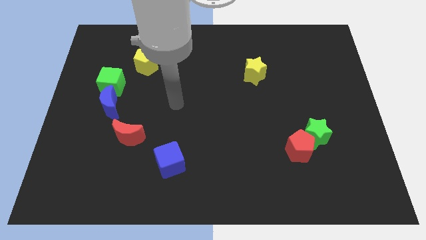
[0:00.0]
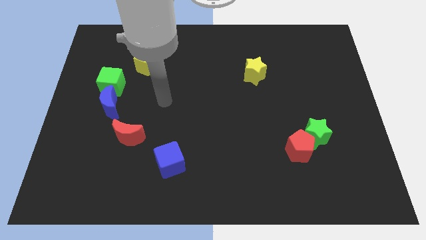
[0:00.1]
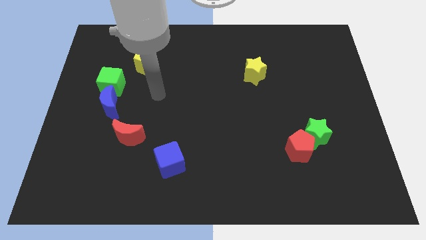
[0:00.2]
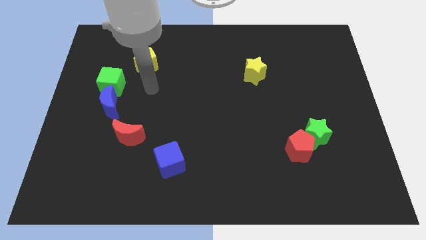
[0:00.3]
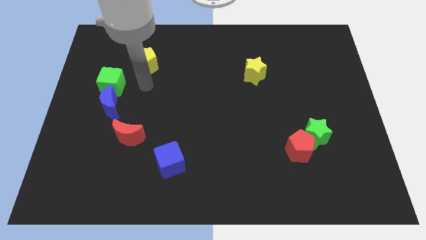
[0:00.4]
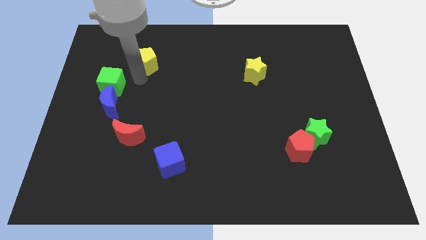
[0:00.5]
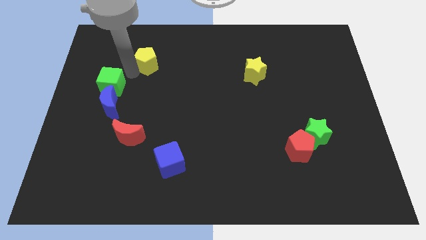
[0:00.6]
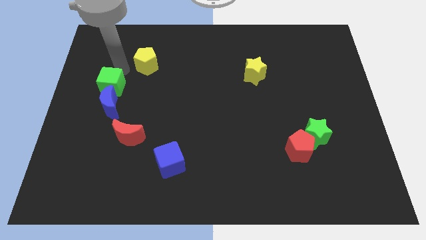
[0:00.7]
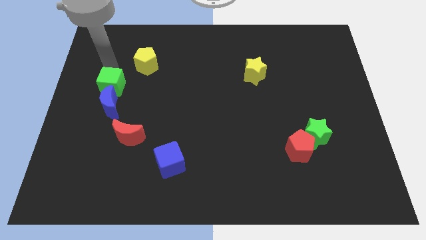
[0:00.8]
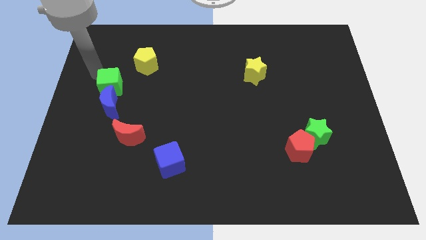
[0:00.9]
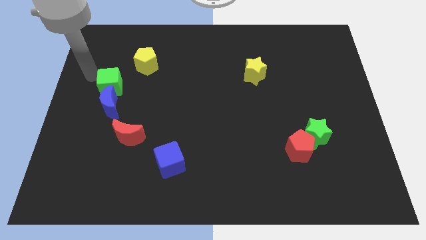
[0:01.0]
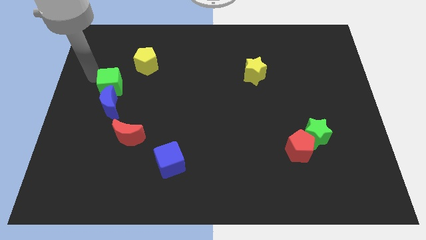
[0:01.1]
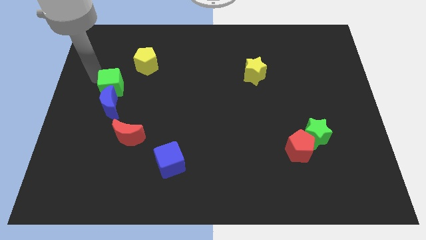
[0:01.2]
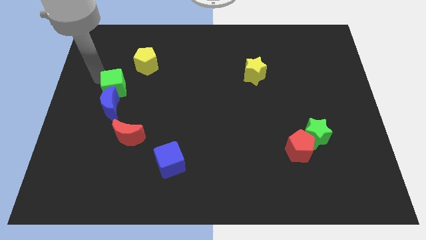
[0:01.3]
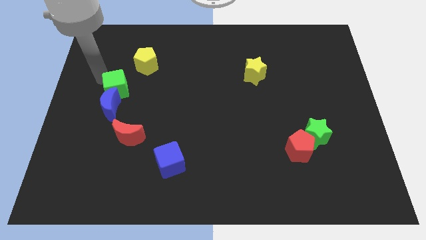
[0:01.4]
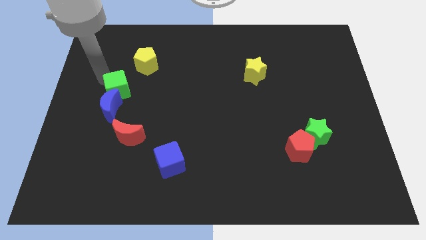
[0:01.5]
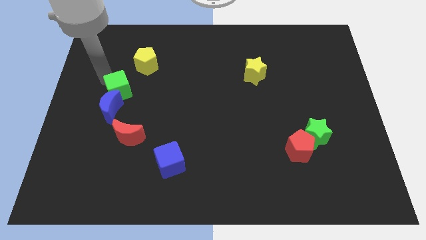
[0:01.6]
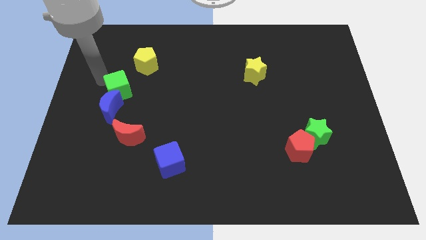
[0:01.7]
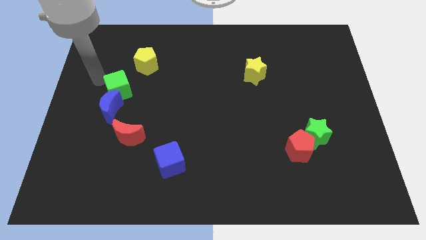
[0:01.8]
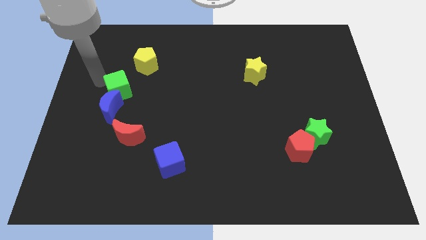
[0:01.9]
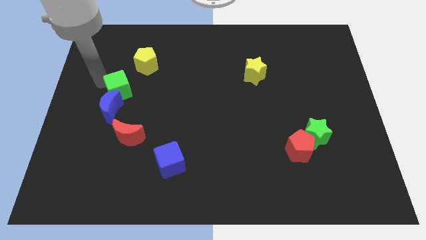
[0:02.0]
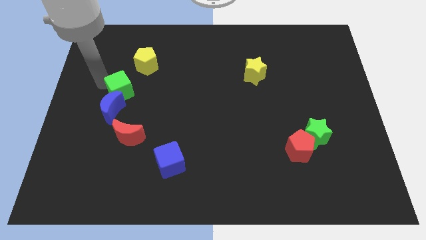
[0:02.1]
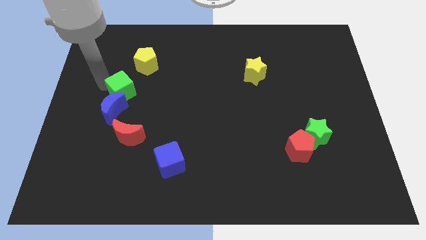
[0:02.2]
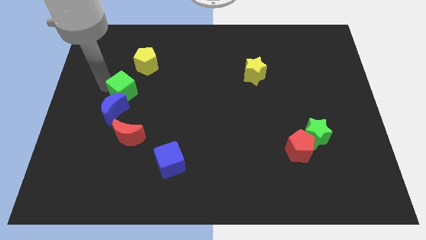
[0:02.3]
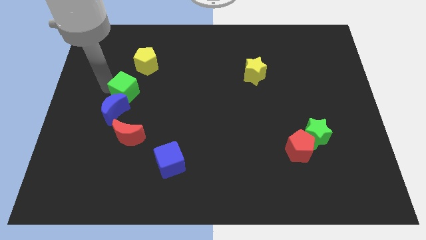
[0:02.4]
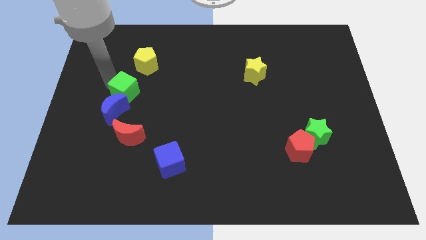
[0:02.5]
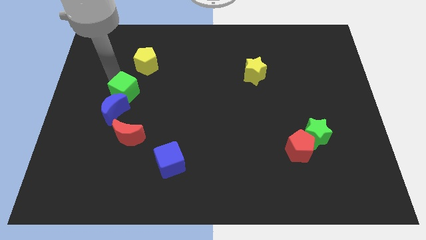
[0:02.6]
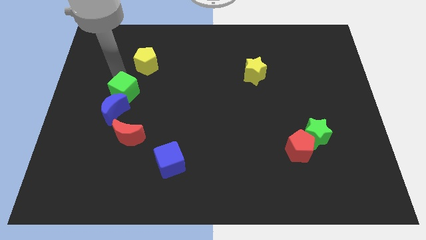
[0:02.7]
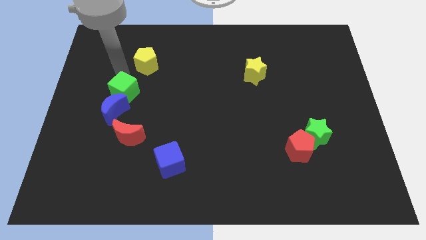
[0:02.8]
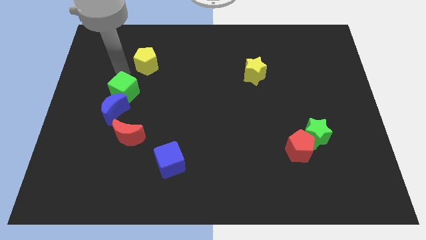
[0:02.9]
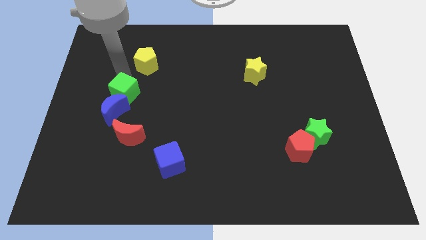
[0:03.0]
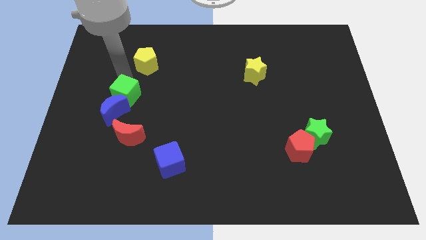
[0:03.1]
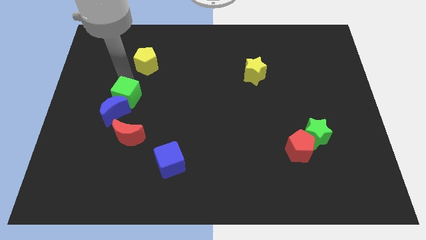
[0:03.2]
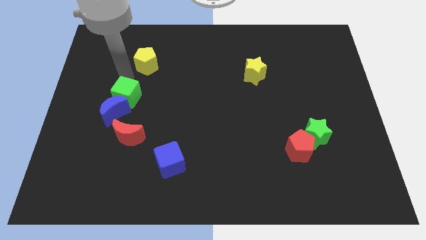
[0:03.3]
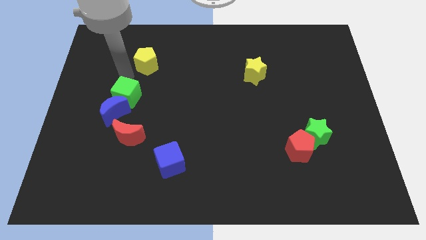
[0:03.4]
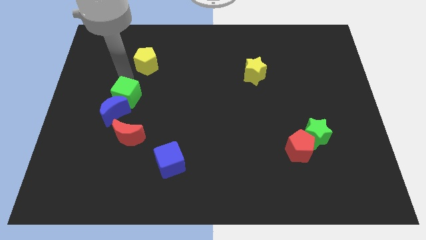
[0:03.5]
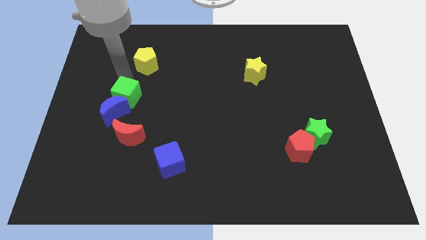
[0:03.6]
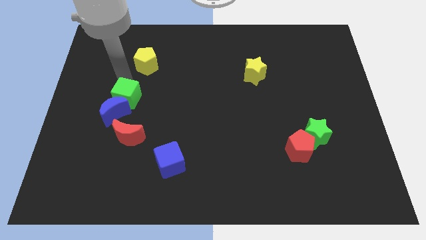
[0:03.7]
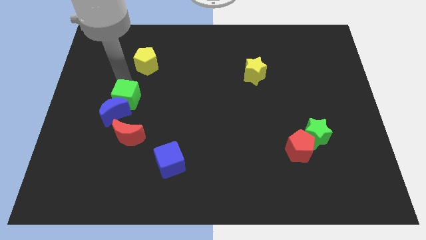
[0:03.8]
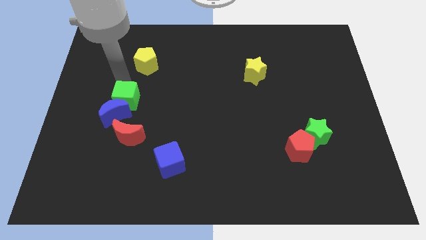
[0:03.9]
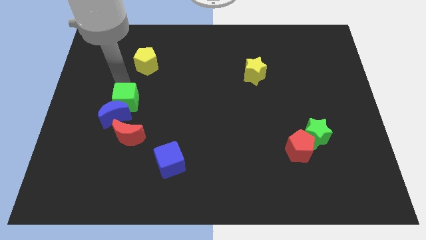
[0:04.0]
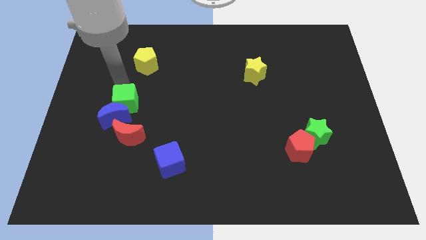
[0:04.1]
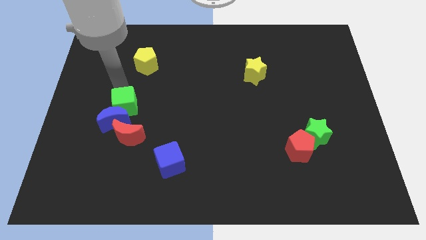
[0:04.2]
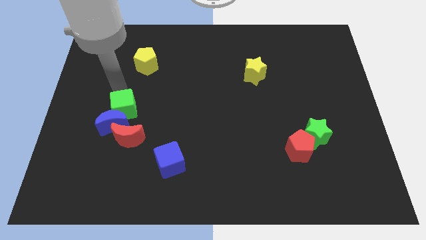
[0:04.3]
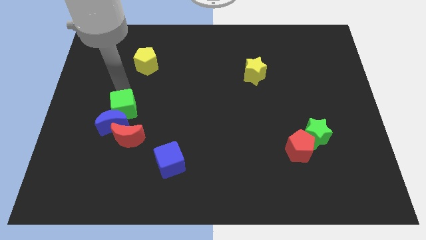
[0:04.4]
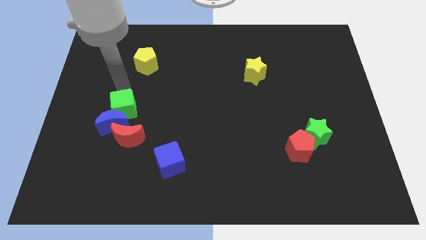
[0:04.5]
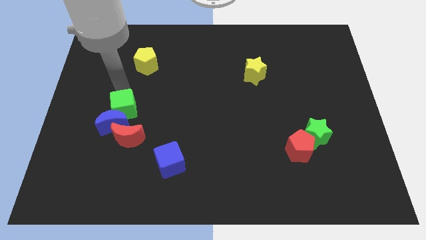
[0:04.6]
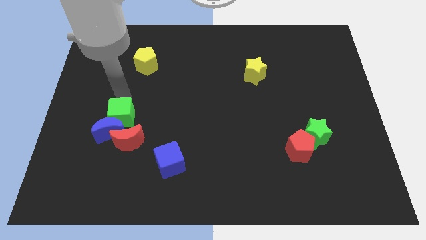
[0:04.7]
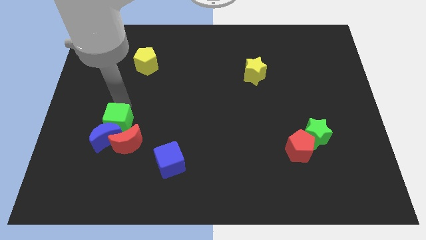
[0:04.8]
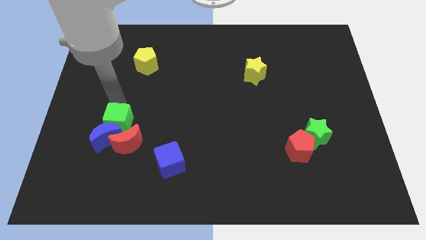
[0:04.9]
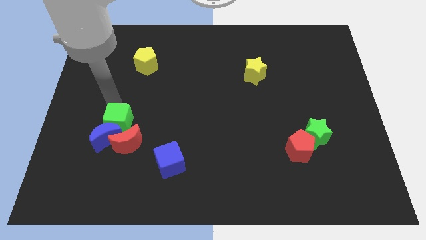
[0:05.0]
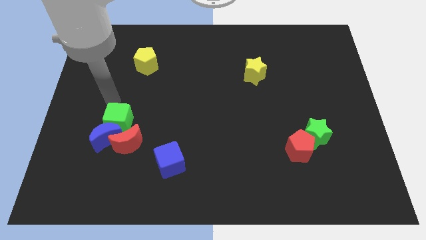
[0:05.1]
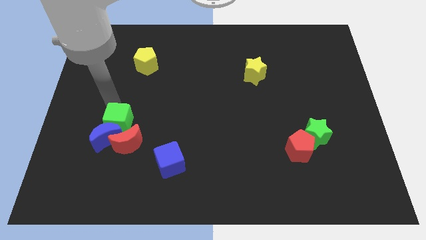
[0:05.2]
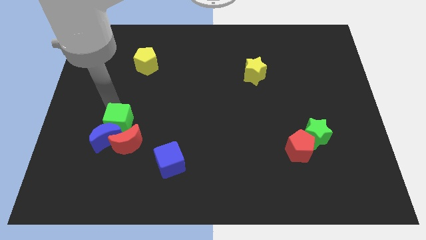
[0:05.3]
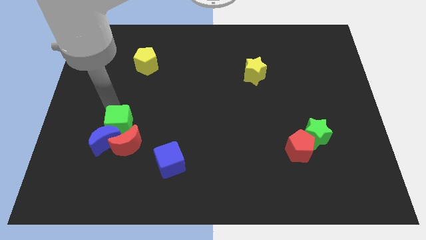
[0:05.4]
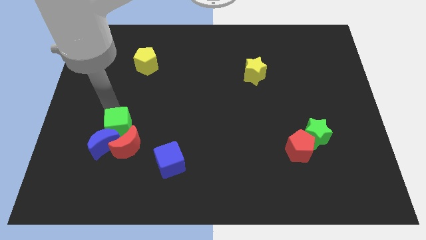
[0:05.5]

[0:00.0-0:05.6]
slide the green cube next to the red moon

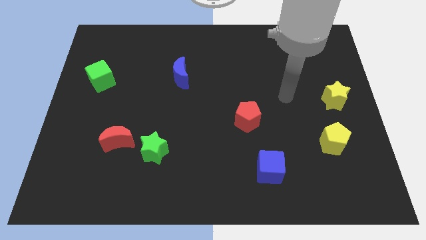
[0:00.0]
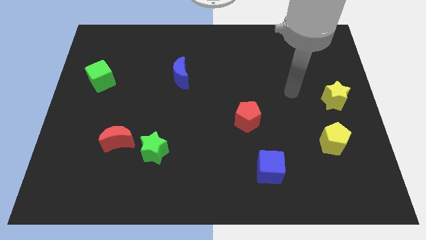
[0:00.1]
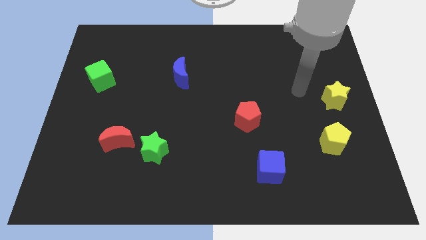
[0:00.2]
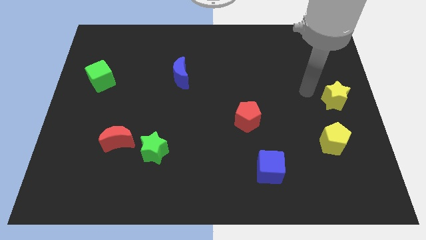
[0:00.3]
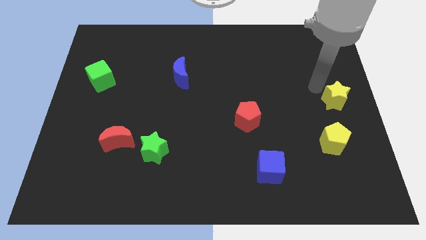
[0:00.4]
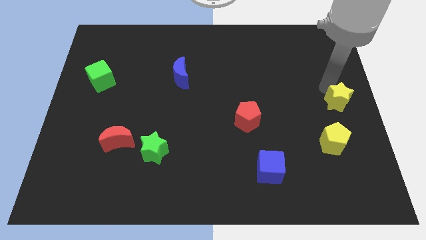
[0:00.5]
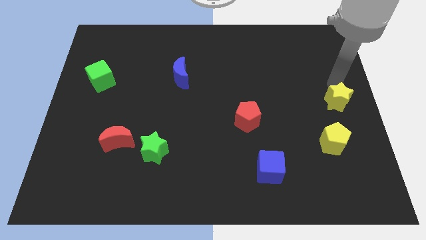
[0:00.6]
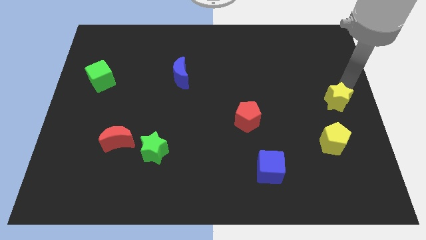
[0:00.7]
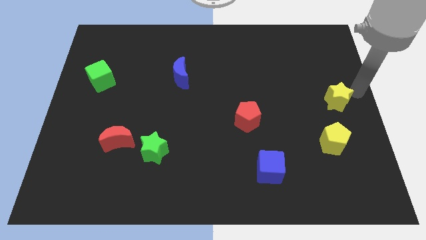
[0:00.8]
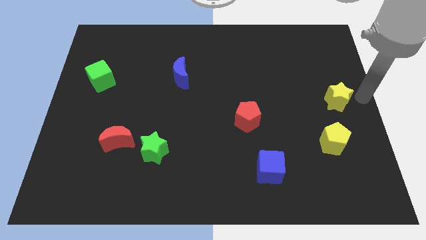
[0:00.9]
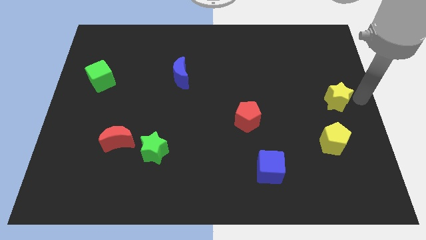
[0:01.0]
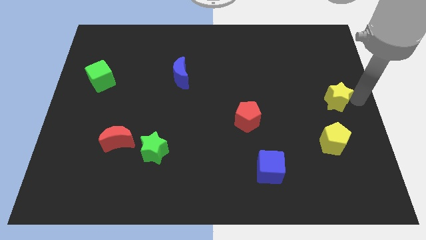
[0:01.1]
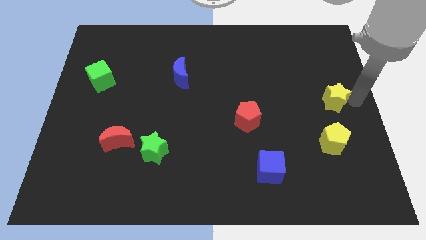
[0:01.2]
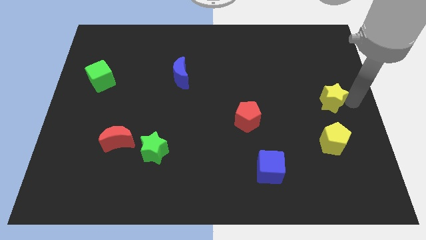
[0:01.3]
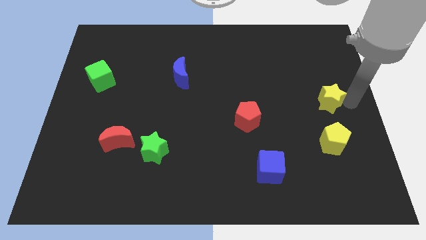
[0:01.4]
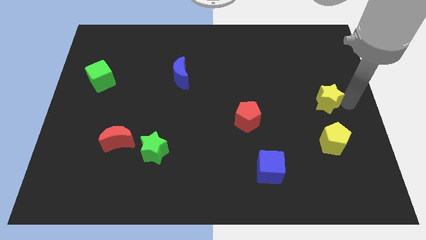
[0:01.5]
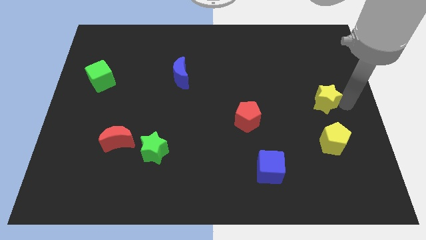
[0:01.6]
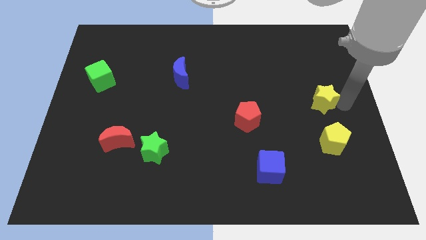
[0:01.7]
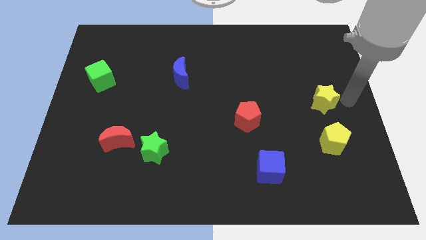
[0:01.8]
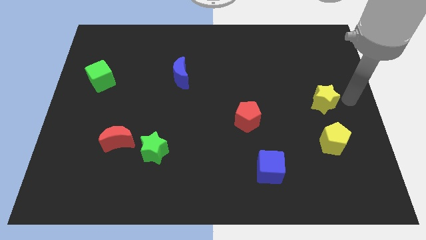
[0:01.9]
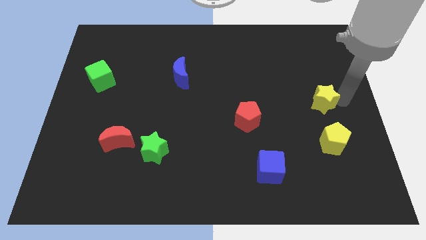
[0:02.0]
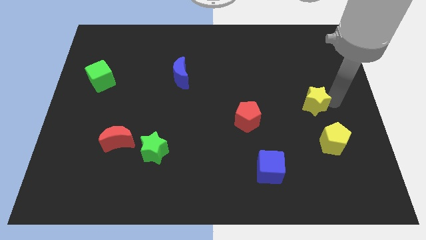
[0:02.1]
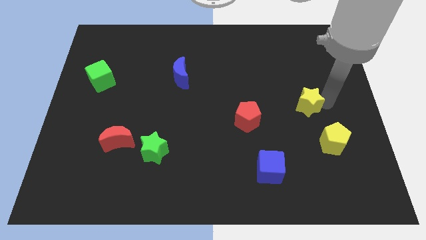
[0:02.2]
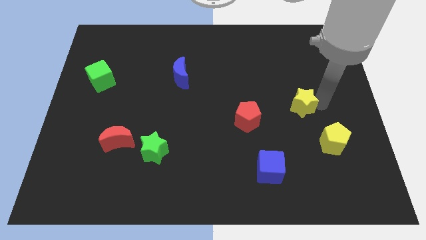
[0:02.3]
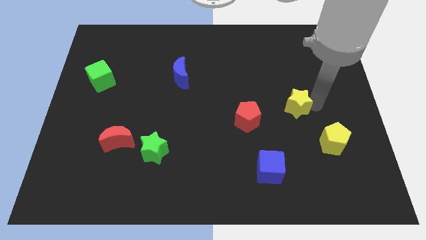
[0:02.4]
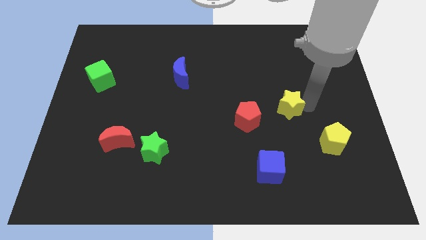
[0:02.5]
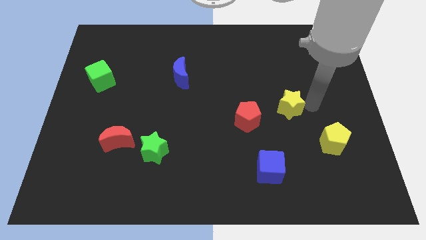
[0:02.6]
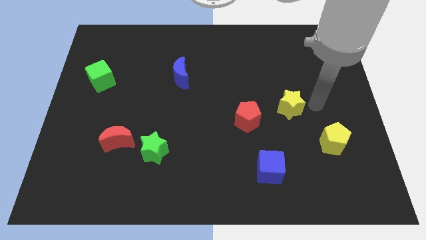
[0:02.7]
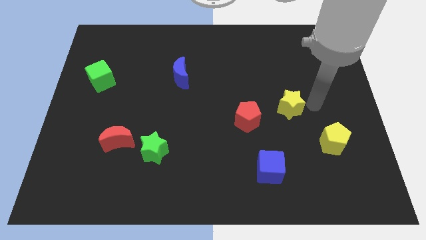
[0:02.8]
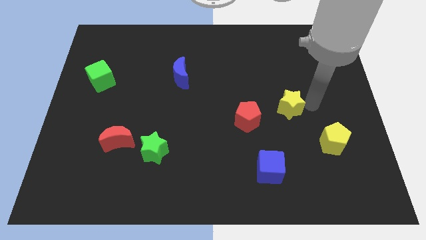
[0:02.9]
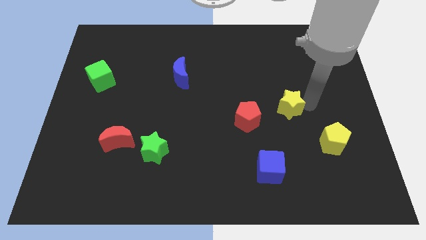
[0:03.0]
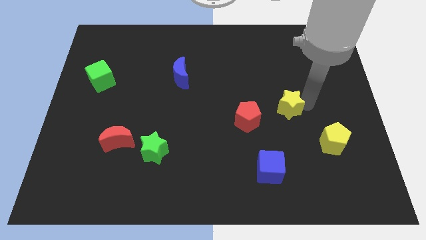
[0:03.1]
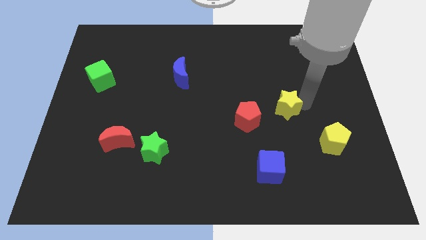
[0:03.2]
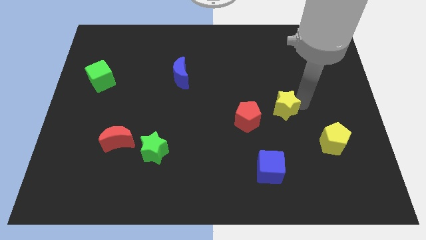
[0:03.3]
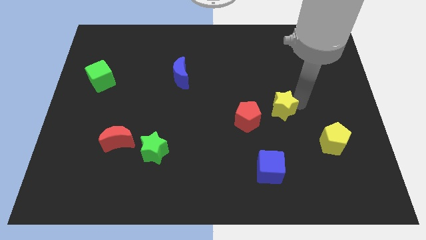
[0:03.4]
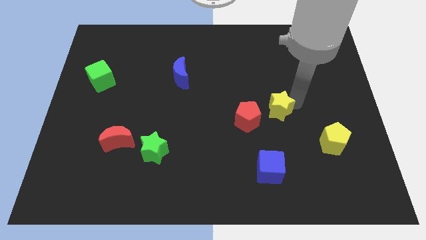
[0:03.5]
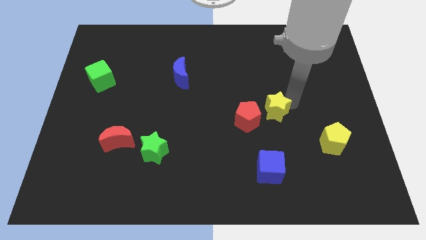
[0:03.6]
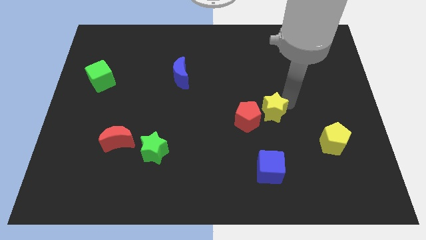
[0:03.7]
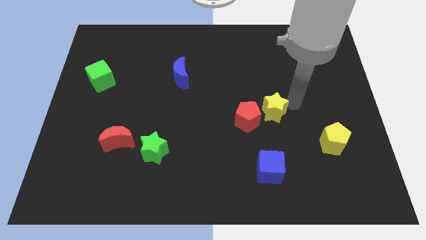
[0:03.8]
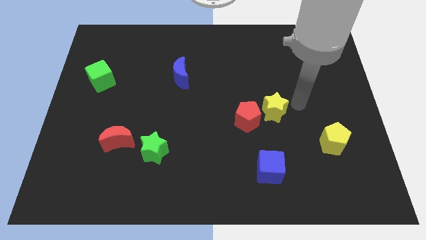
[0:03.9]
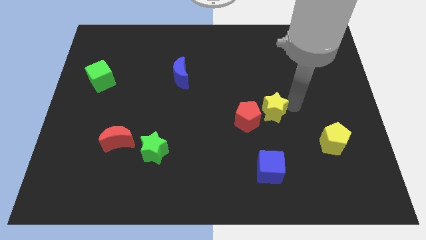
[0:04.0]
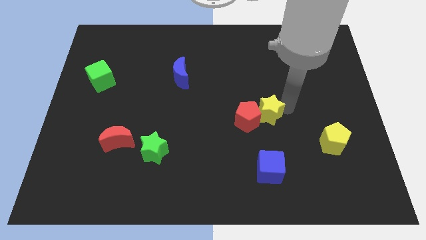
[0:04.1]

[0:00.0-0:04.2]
move the yellow star next to the red pentagon
